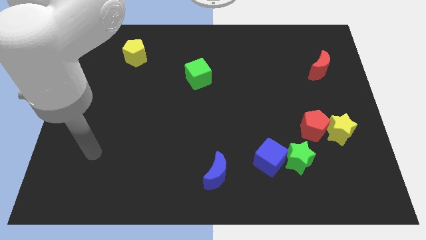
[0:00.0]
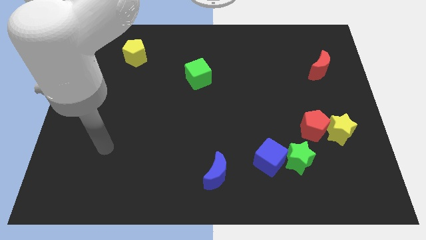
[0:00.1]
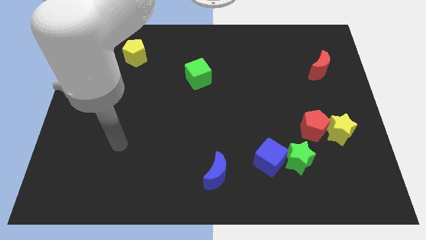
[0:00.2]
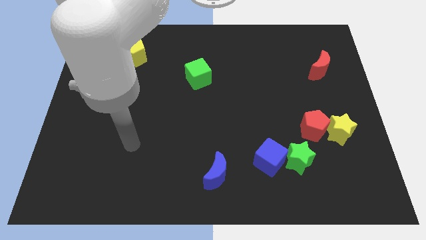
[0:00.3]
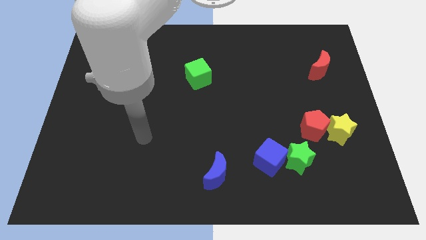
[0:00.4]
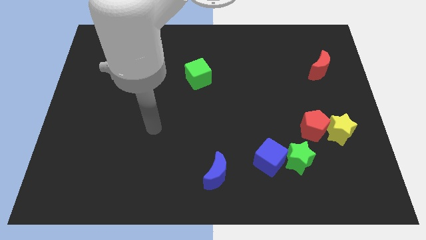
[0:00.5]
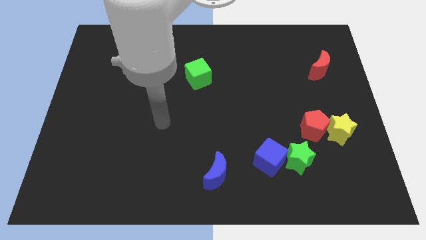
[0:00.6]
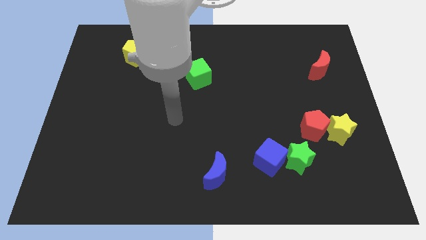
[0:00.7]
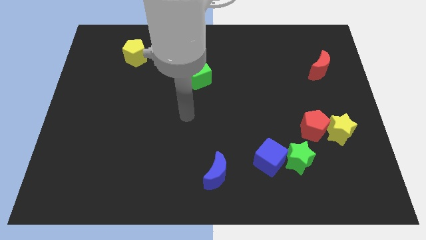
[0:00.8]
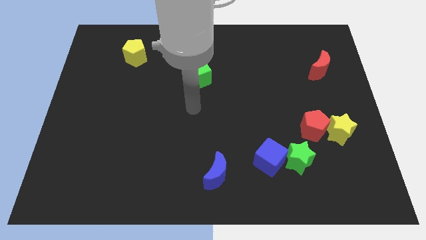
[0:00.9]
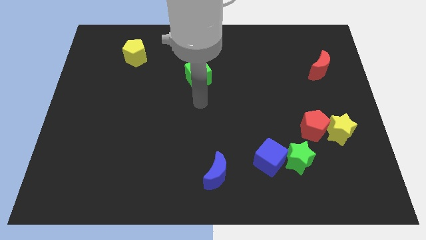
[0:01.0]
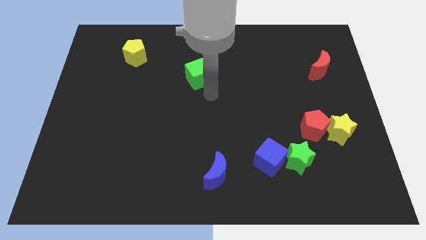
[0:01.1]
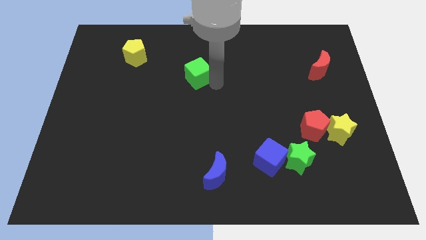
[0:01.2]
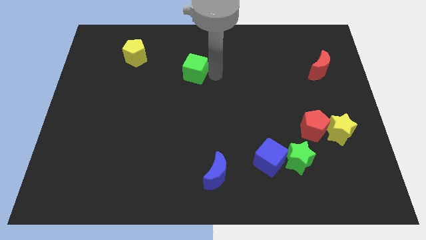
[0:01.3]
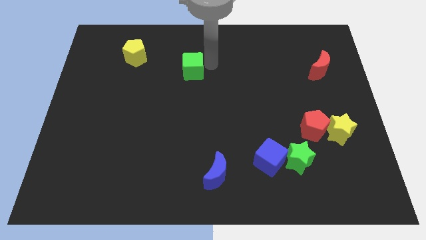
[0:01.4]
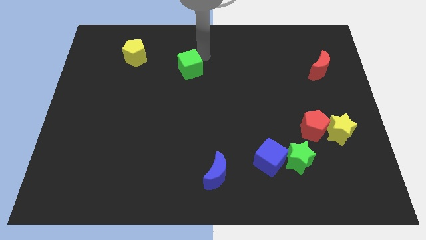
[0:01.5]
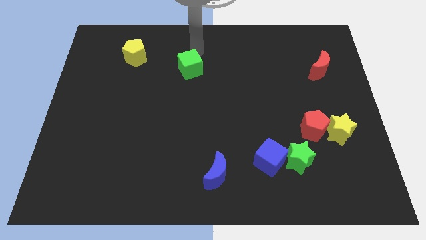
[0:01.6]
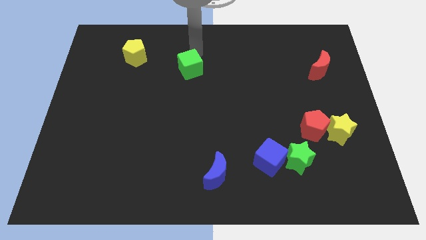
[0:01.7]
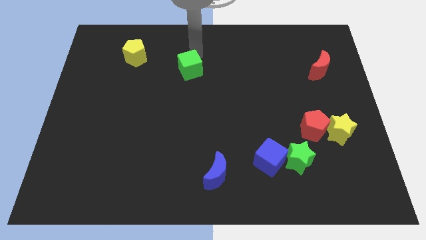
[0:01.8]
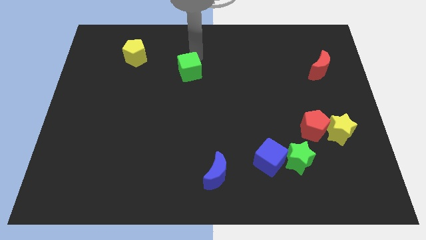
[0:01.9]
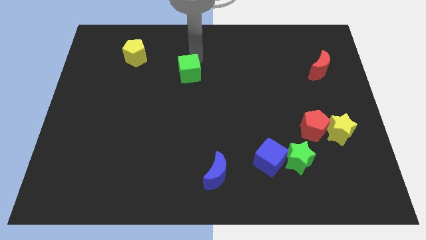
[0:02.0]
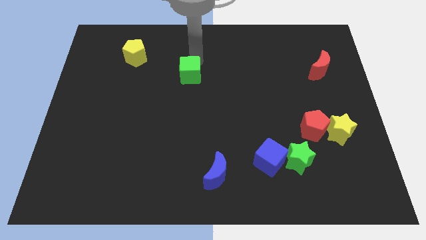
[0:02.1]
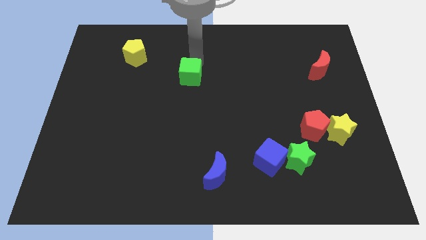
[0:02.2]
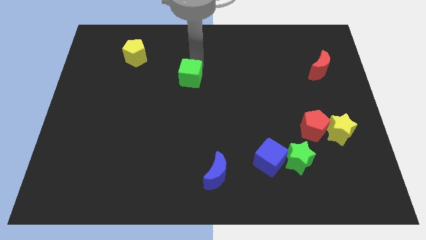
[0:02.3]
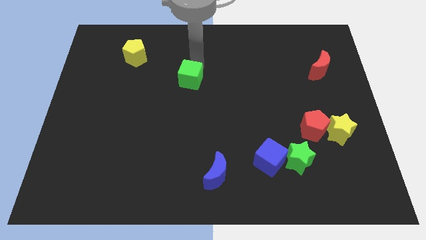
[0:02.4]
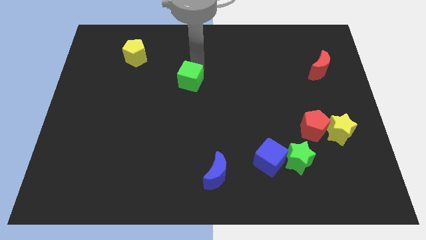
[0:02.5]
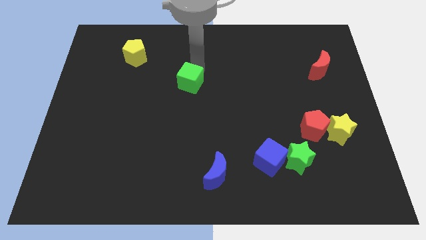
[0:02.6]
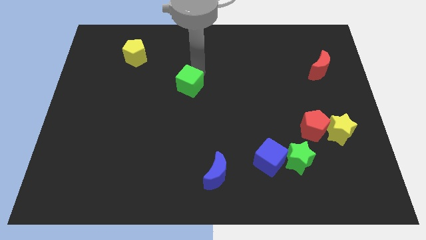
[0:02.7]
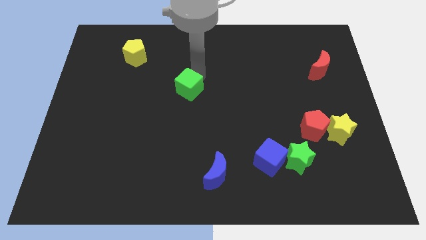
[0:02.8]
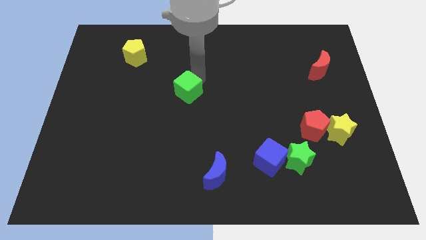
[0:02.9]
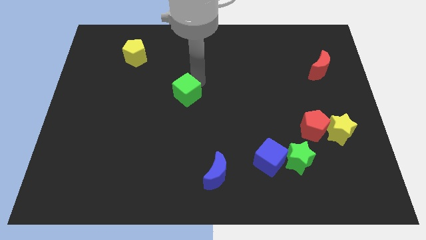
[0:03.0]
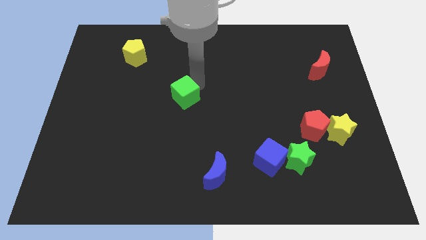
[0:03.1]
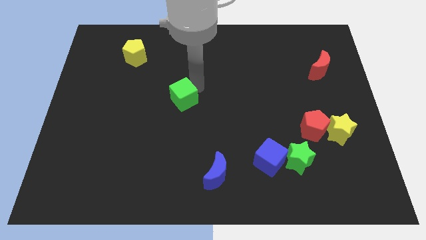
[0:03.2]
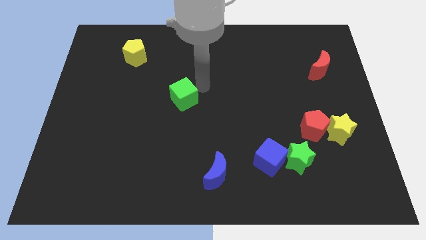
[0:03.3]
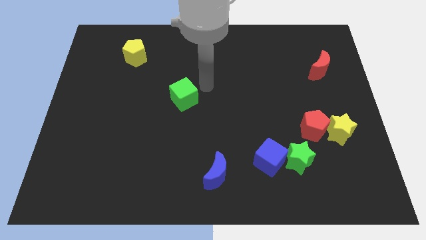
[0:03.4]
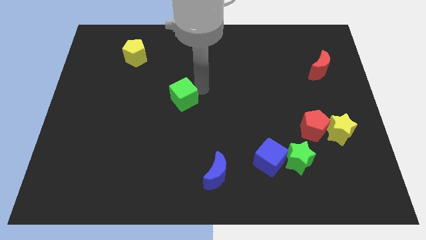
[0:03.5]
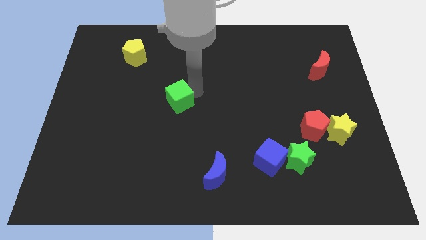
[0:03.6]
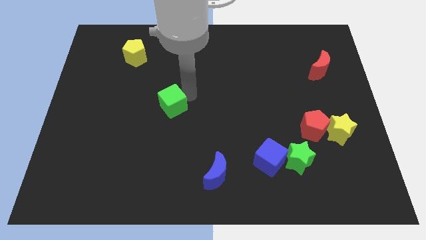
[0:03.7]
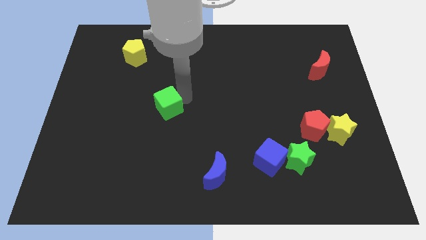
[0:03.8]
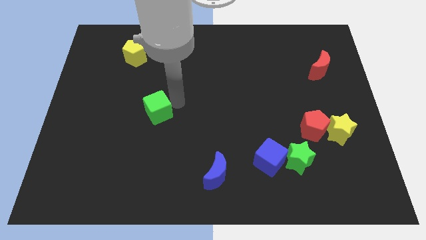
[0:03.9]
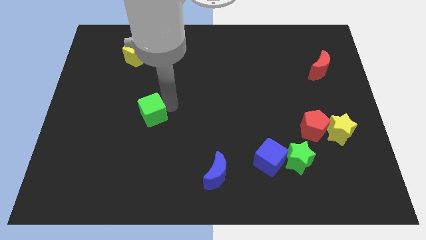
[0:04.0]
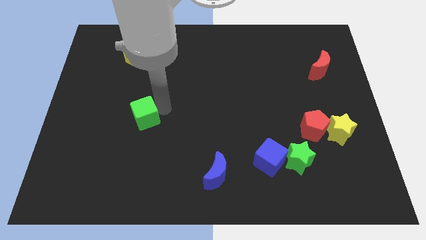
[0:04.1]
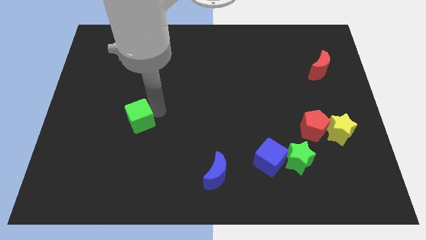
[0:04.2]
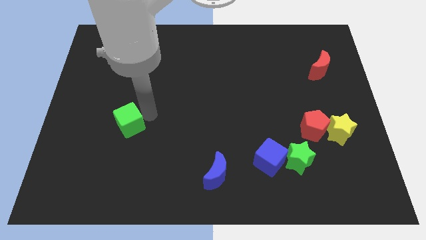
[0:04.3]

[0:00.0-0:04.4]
push the green cube downwards and to the left diagonally

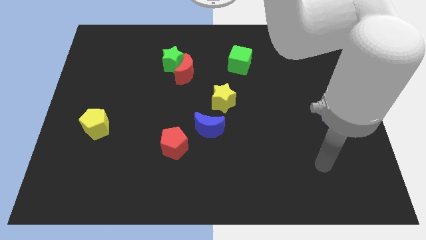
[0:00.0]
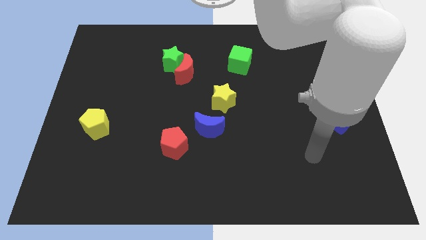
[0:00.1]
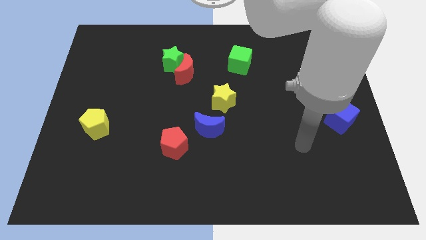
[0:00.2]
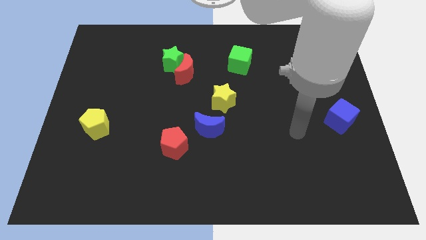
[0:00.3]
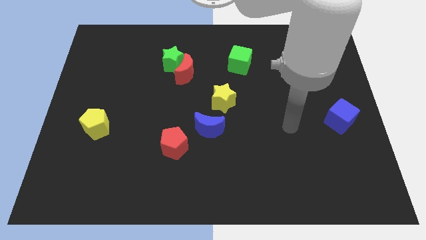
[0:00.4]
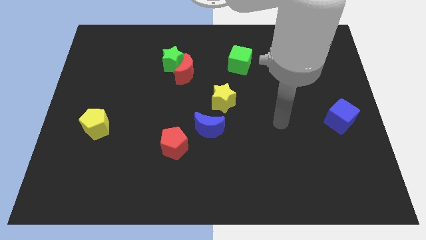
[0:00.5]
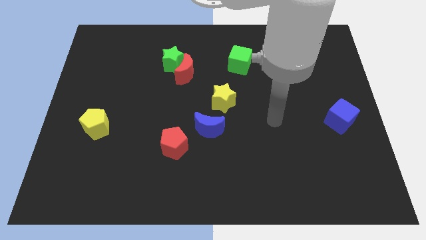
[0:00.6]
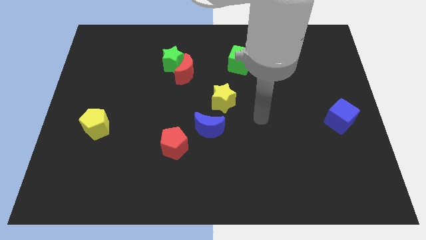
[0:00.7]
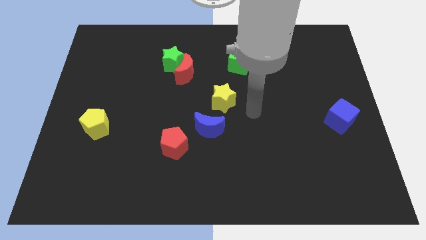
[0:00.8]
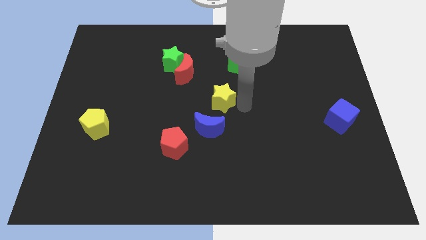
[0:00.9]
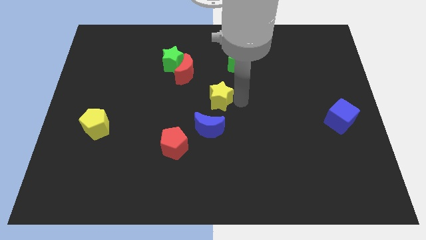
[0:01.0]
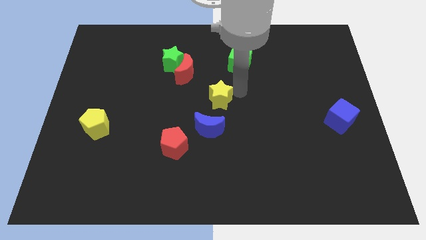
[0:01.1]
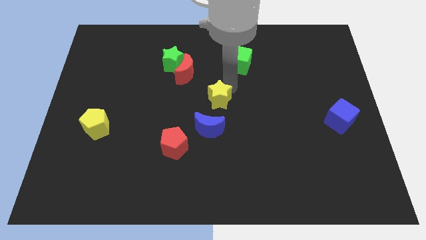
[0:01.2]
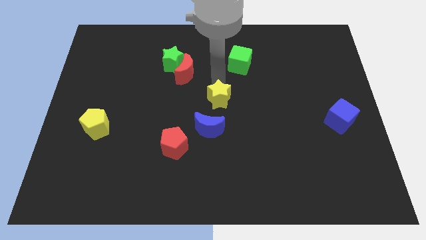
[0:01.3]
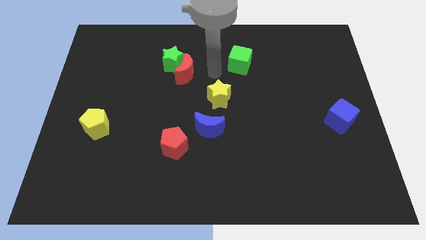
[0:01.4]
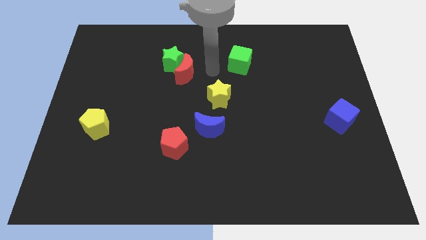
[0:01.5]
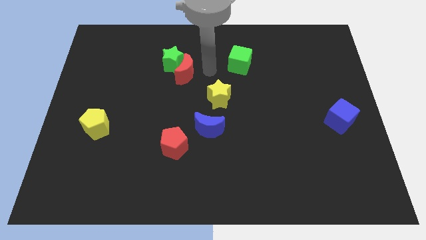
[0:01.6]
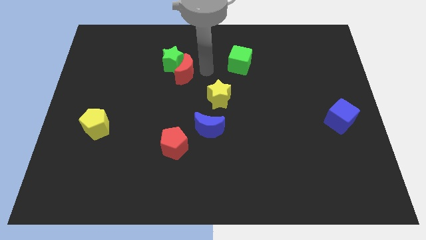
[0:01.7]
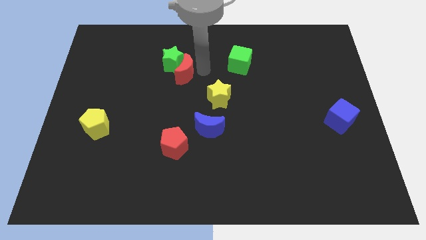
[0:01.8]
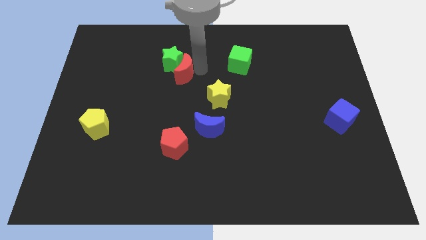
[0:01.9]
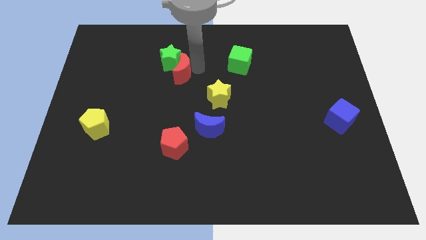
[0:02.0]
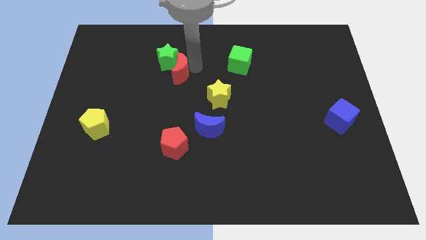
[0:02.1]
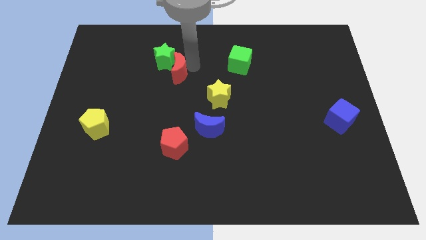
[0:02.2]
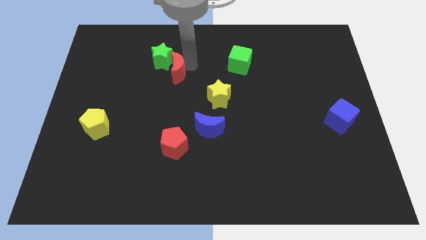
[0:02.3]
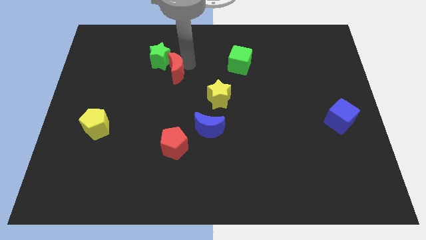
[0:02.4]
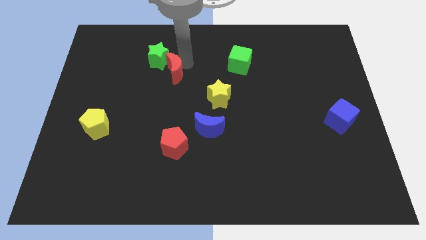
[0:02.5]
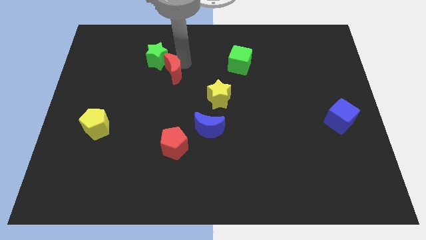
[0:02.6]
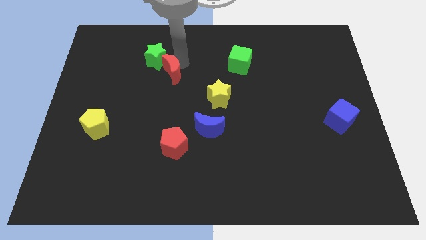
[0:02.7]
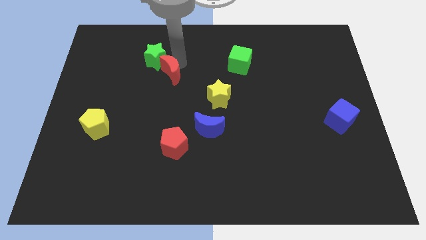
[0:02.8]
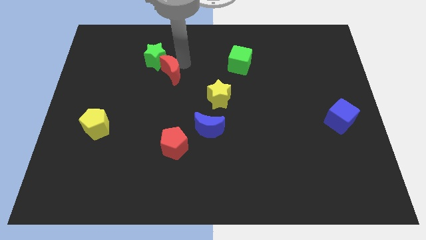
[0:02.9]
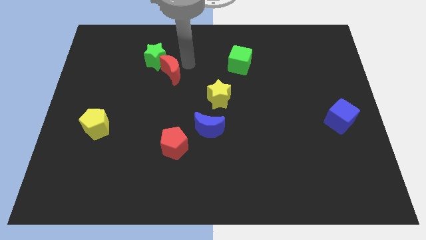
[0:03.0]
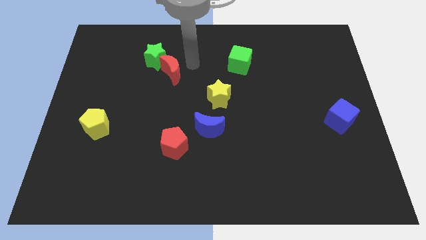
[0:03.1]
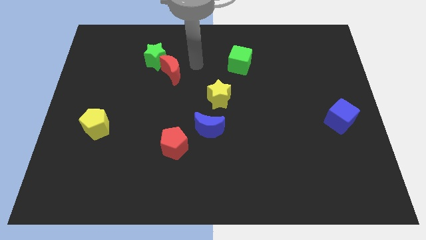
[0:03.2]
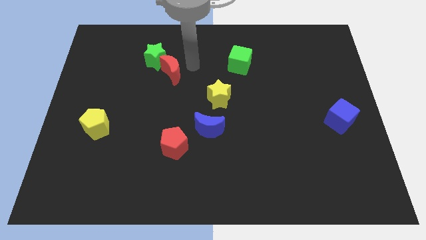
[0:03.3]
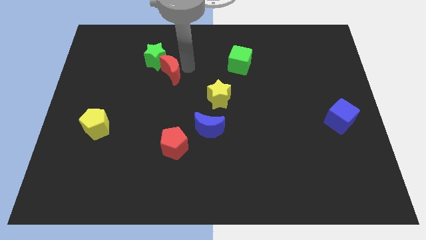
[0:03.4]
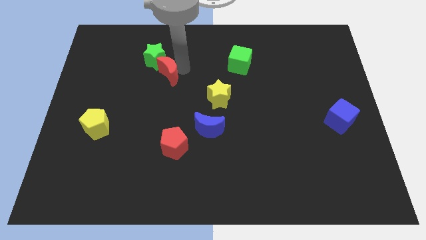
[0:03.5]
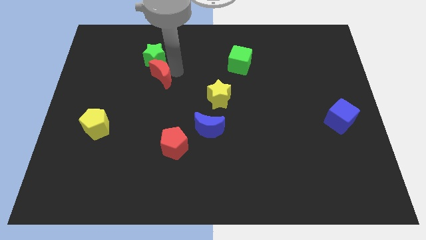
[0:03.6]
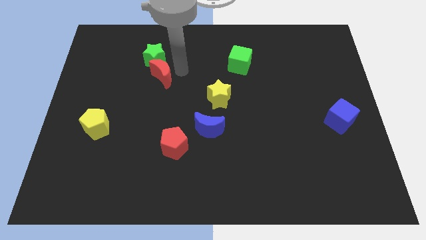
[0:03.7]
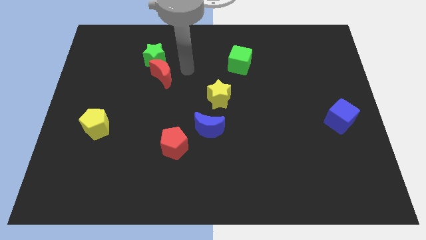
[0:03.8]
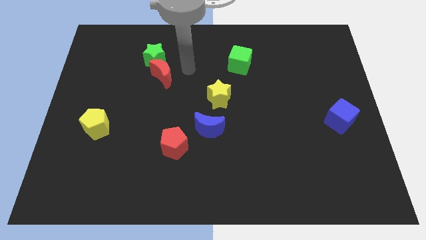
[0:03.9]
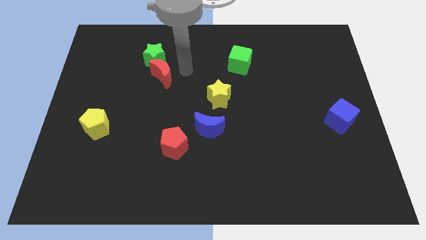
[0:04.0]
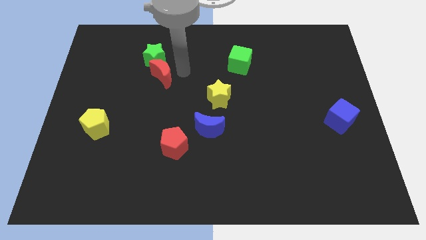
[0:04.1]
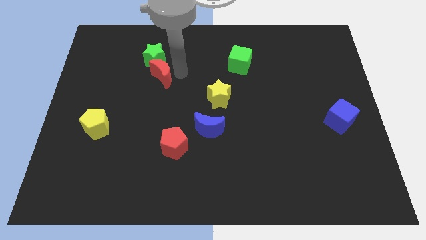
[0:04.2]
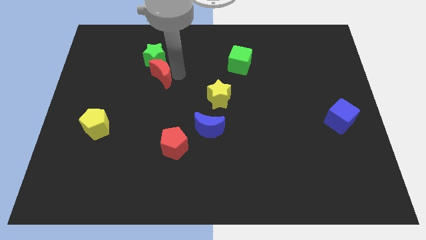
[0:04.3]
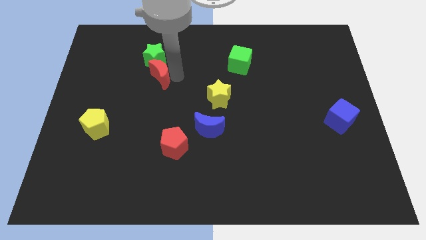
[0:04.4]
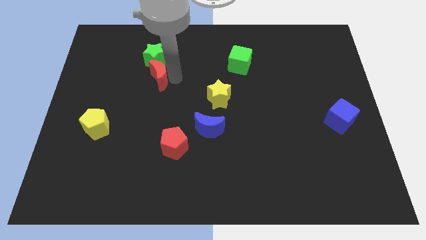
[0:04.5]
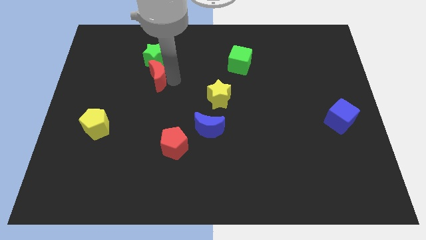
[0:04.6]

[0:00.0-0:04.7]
push the red moon left somewhat

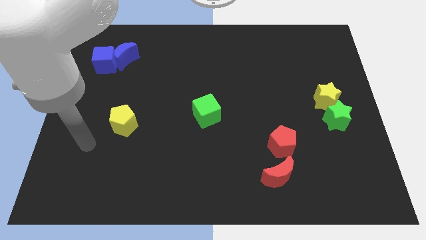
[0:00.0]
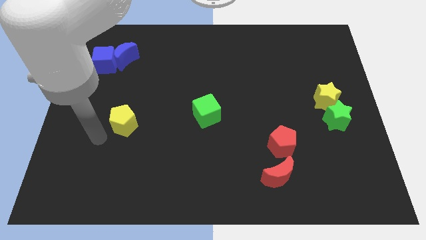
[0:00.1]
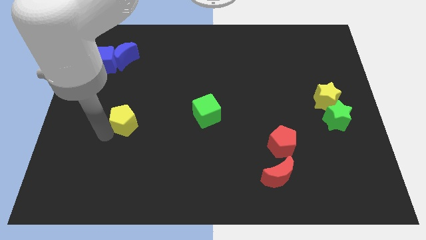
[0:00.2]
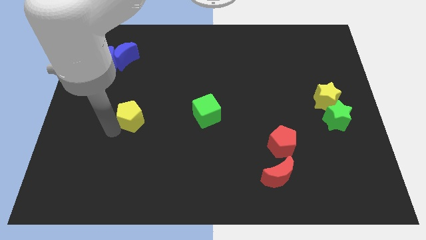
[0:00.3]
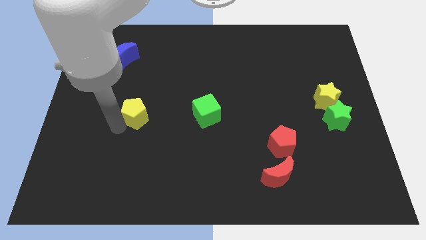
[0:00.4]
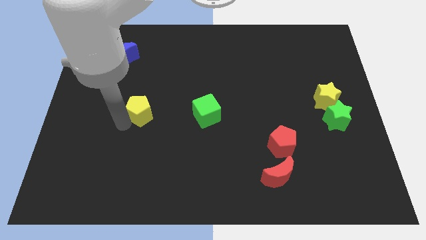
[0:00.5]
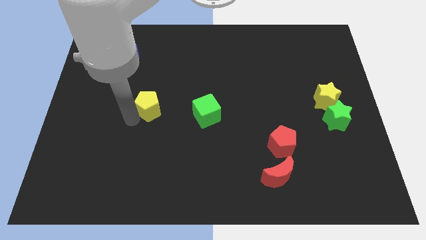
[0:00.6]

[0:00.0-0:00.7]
move the yellow pentagon up and right a little bit
